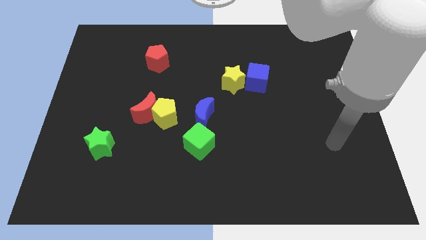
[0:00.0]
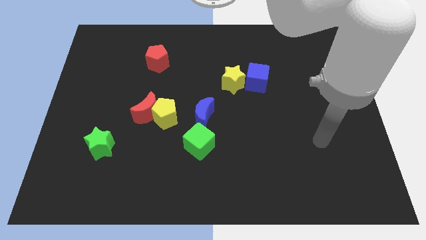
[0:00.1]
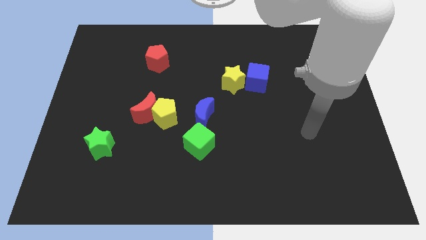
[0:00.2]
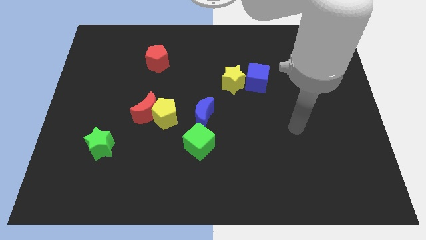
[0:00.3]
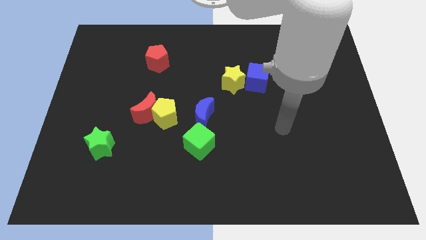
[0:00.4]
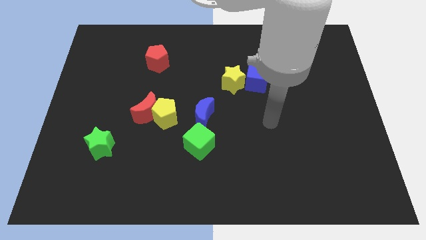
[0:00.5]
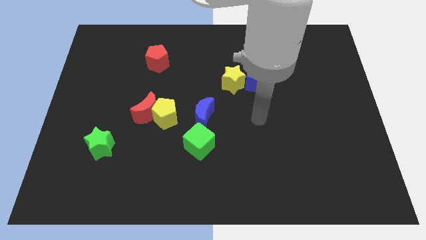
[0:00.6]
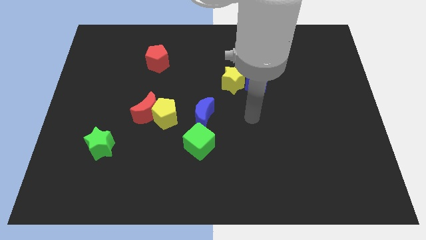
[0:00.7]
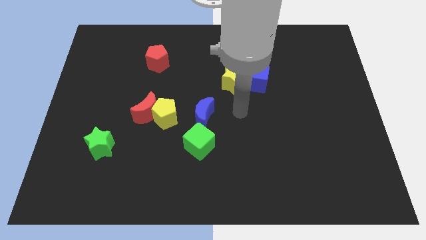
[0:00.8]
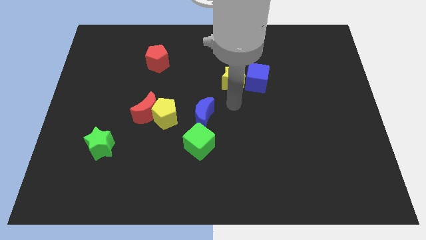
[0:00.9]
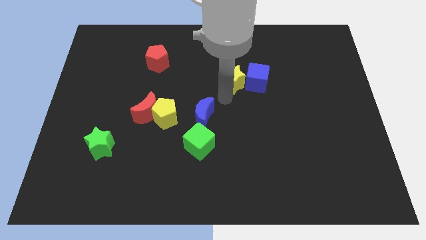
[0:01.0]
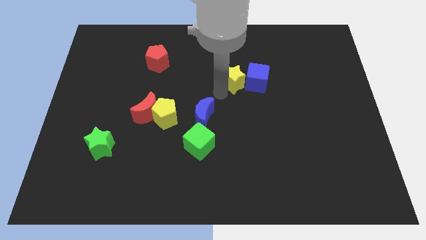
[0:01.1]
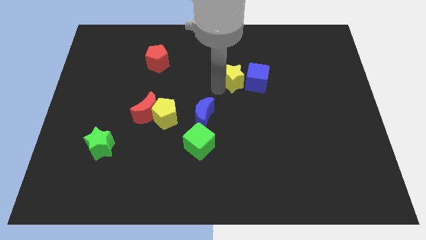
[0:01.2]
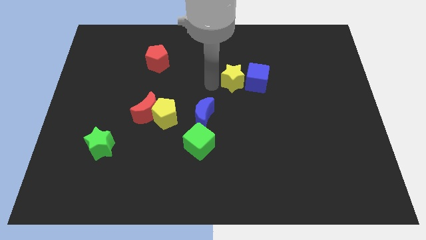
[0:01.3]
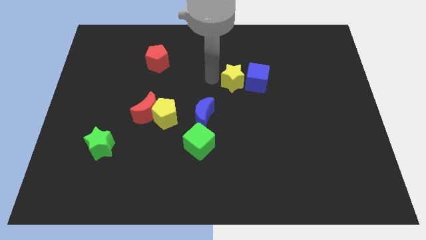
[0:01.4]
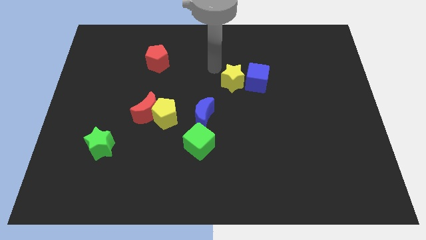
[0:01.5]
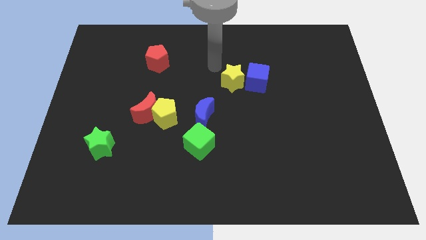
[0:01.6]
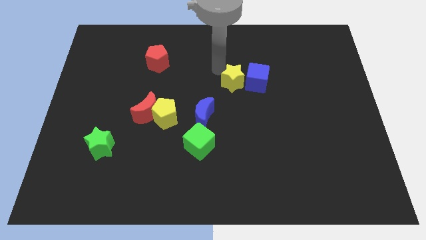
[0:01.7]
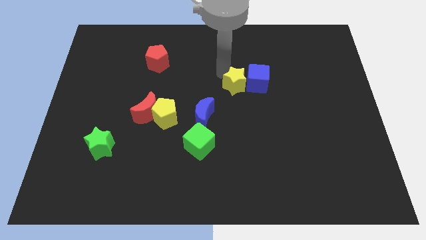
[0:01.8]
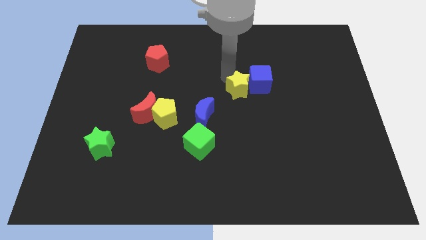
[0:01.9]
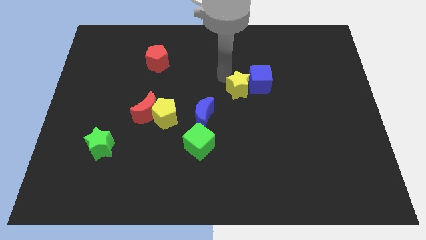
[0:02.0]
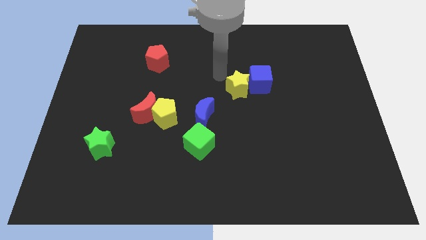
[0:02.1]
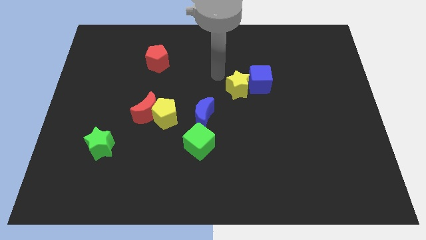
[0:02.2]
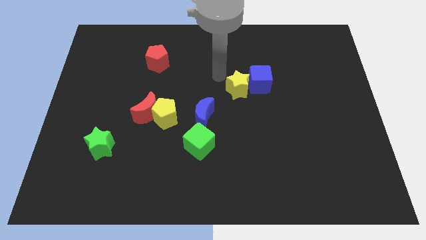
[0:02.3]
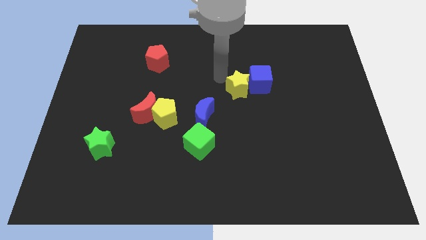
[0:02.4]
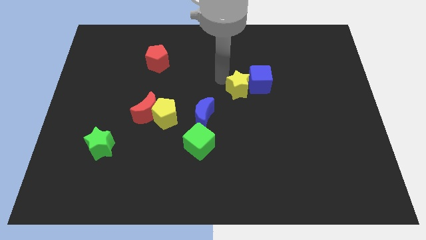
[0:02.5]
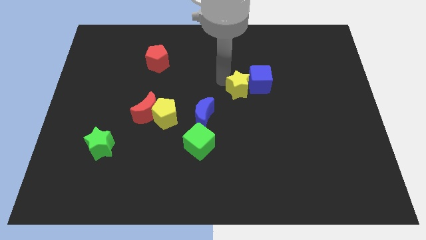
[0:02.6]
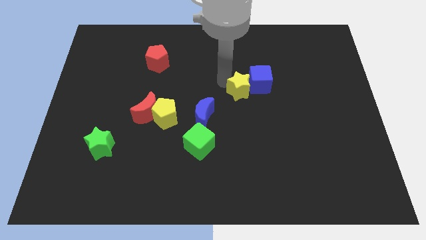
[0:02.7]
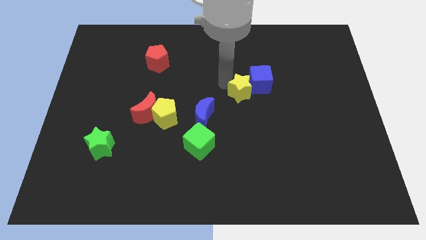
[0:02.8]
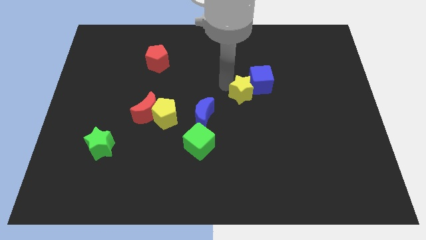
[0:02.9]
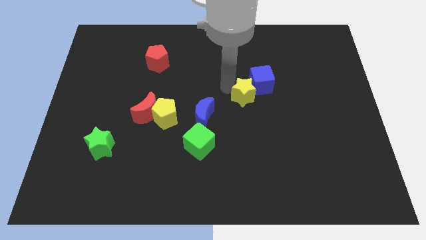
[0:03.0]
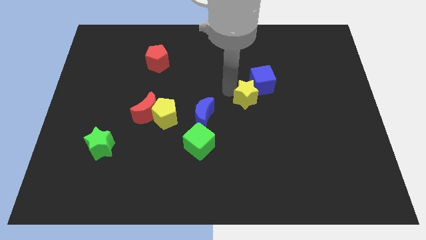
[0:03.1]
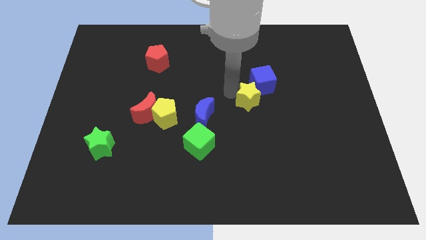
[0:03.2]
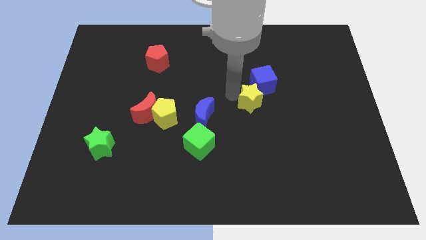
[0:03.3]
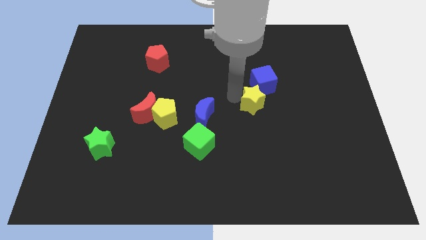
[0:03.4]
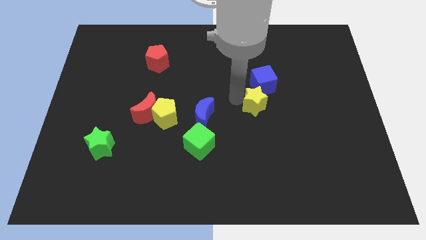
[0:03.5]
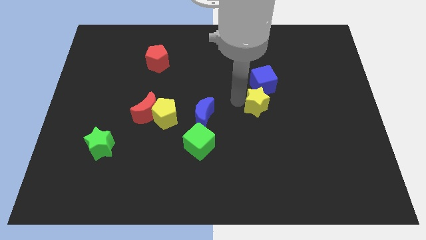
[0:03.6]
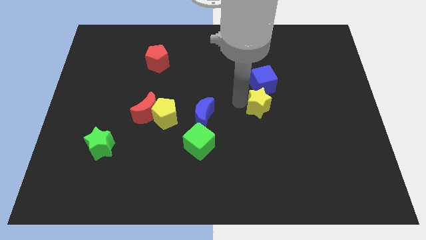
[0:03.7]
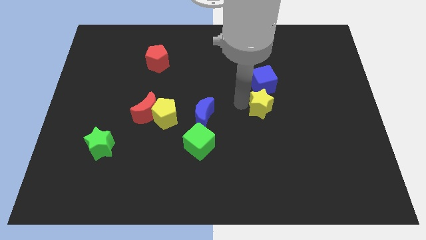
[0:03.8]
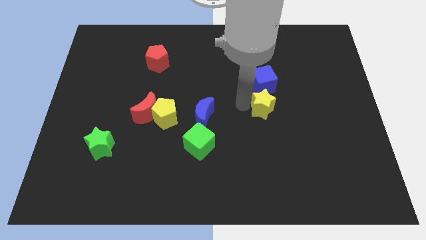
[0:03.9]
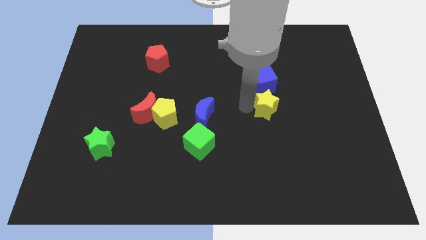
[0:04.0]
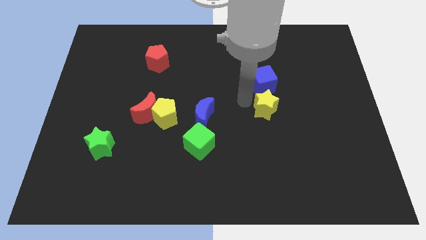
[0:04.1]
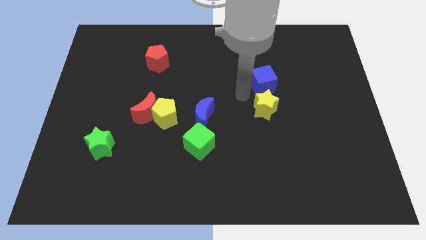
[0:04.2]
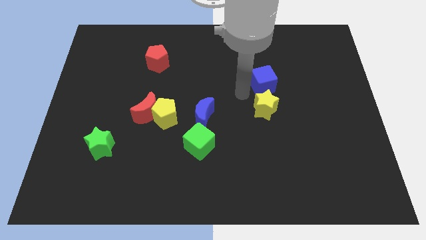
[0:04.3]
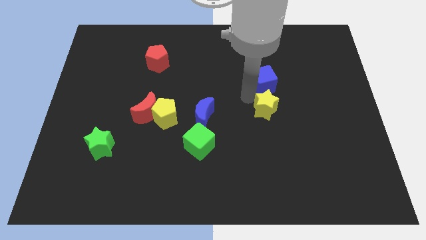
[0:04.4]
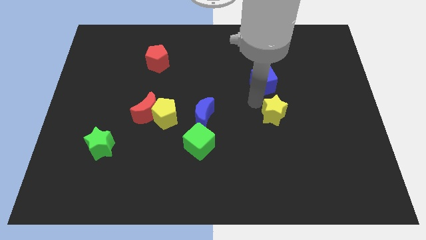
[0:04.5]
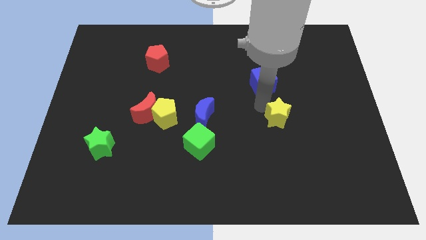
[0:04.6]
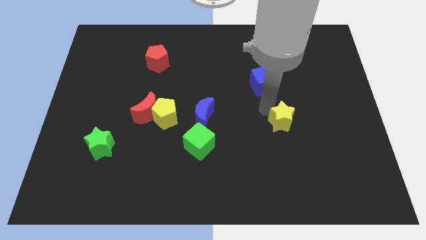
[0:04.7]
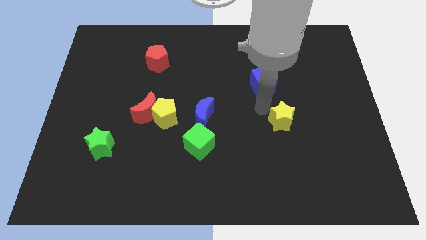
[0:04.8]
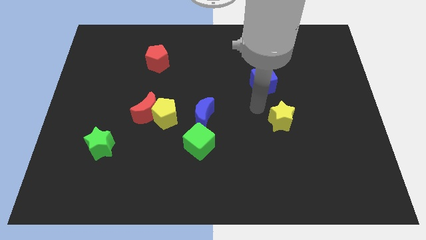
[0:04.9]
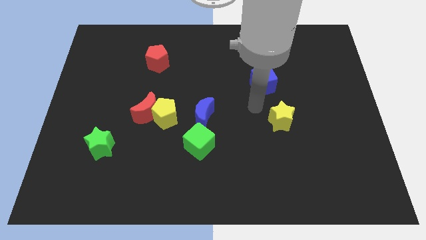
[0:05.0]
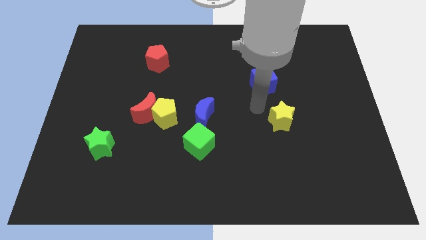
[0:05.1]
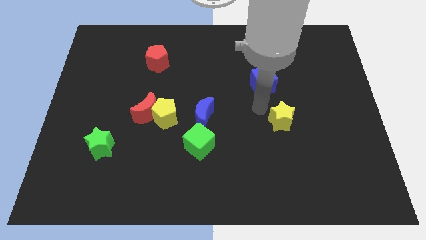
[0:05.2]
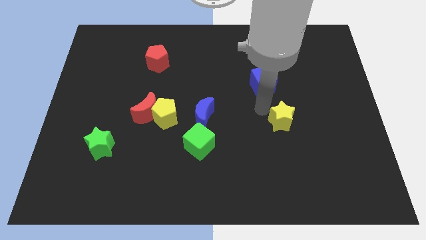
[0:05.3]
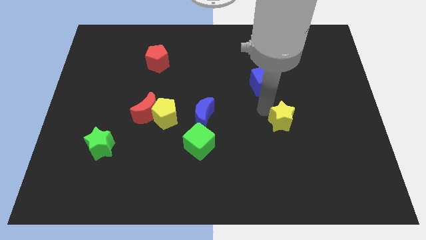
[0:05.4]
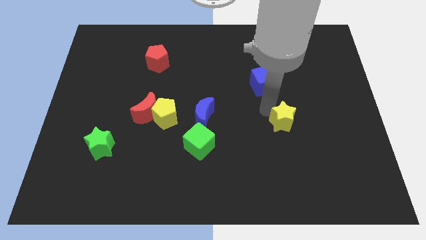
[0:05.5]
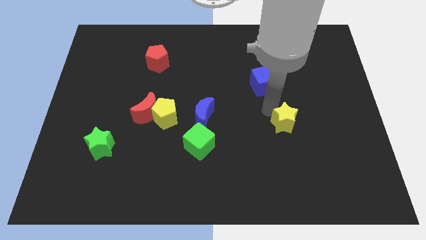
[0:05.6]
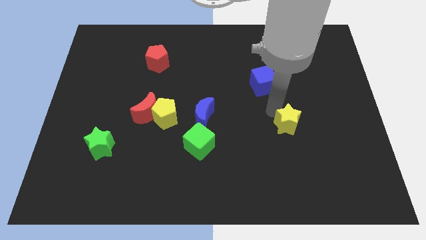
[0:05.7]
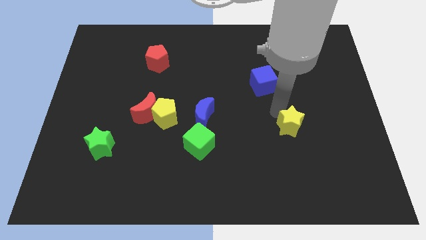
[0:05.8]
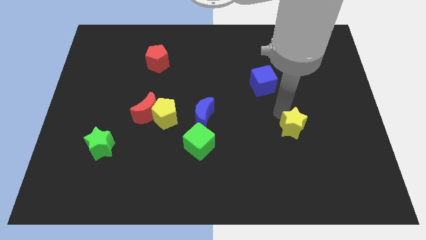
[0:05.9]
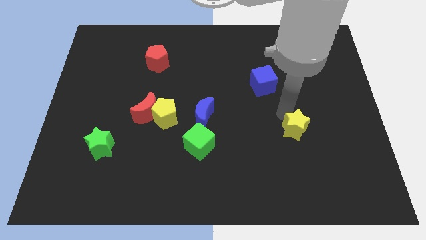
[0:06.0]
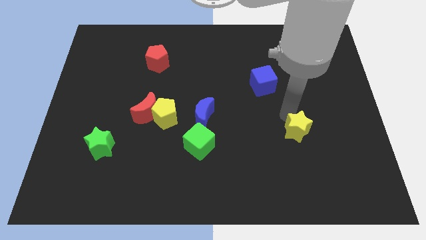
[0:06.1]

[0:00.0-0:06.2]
push the yellow star downwards and to the right

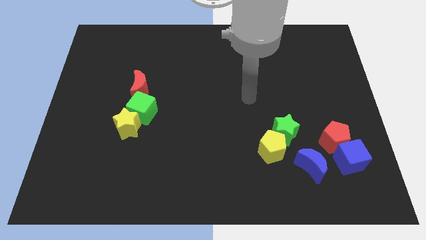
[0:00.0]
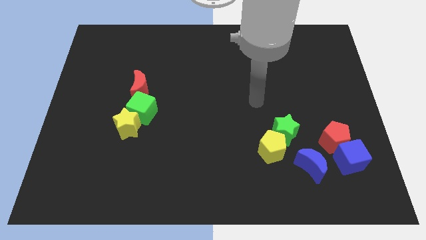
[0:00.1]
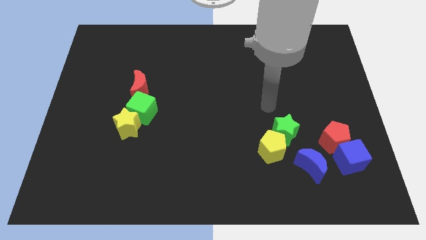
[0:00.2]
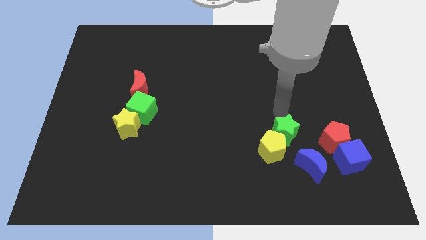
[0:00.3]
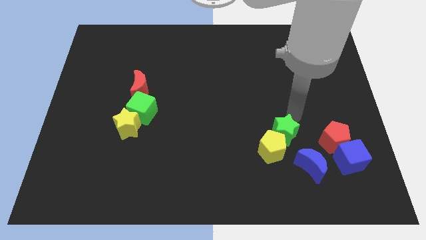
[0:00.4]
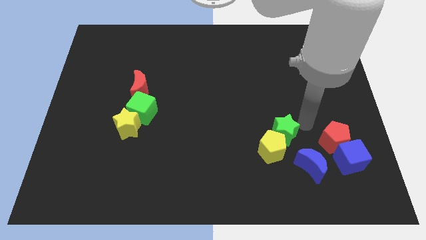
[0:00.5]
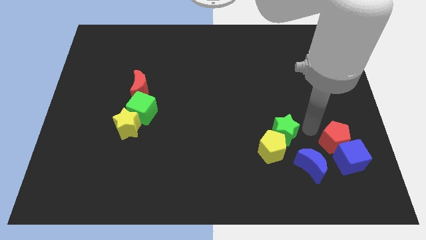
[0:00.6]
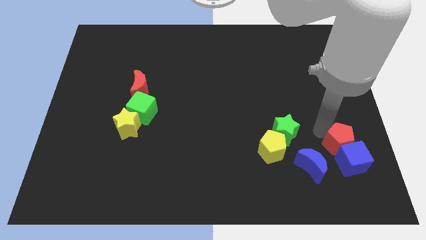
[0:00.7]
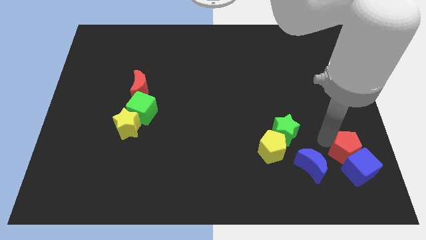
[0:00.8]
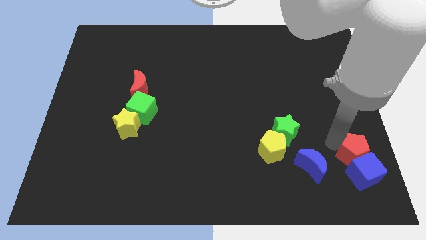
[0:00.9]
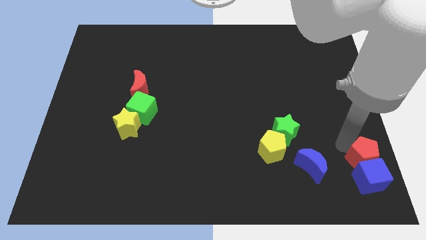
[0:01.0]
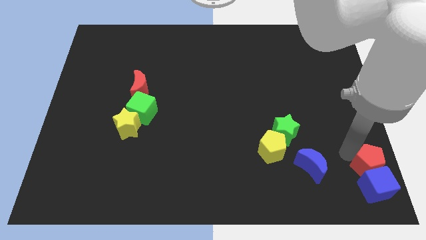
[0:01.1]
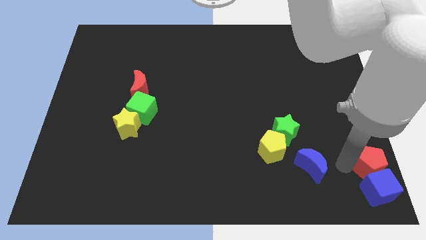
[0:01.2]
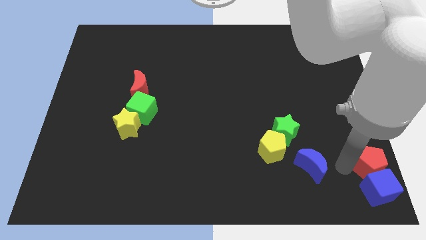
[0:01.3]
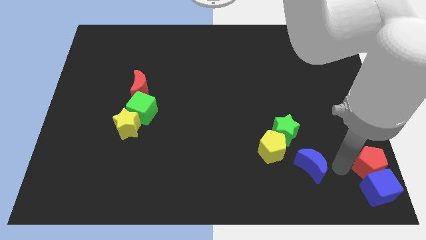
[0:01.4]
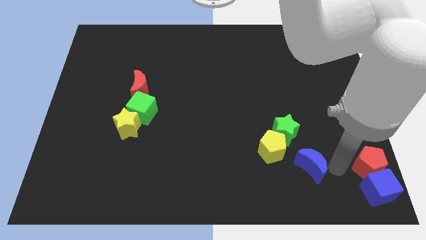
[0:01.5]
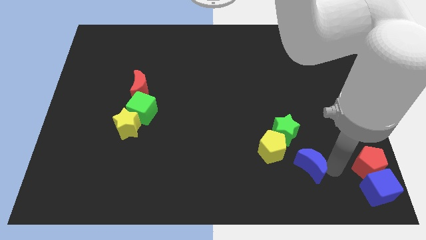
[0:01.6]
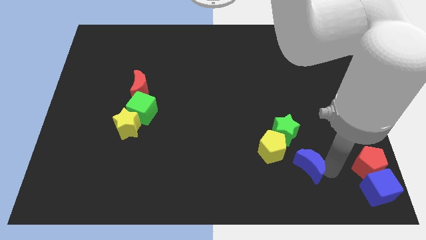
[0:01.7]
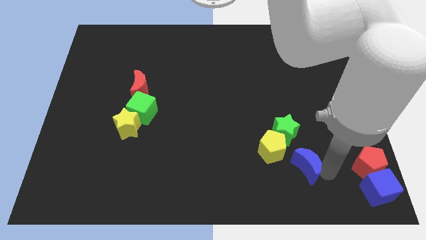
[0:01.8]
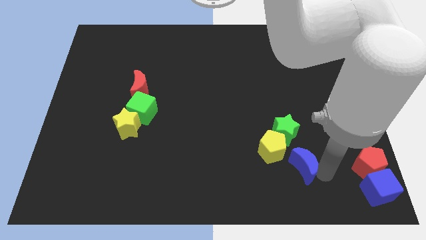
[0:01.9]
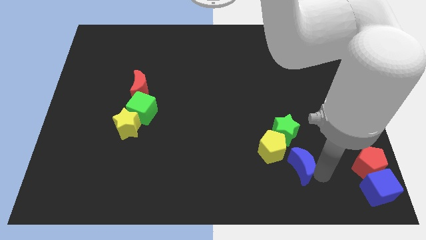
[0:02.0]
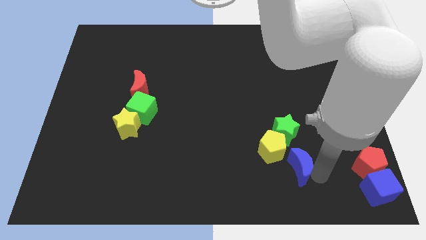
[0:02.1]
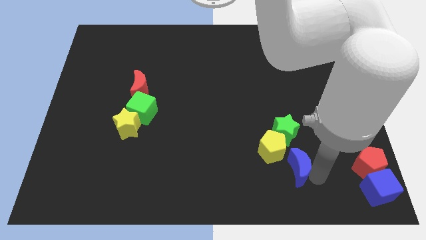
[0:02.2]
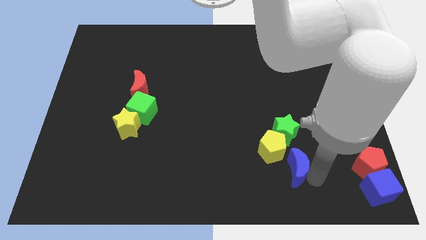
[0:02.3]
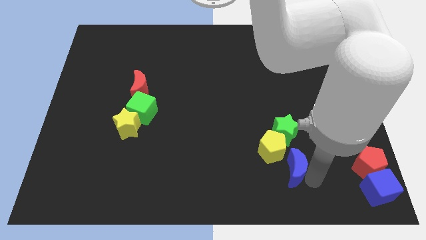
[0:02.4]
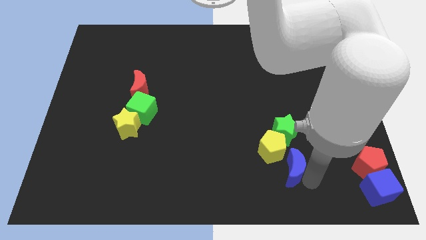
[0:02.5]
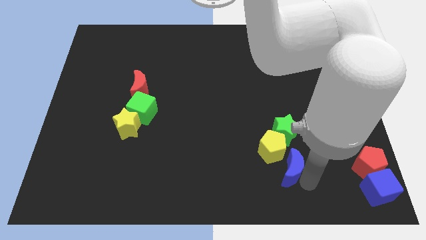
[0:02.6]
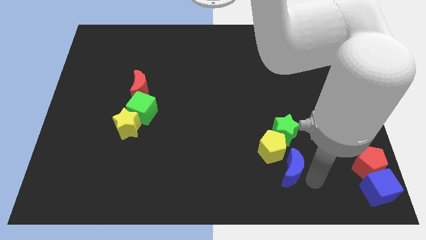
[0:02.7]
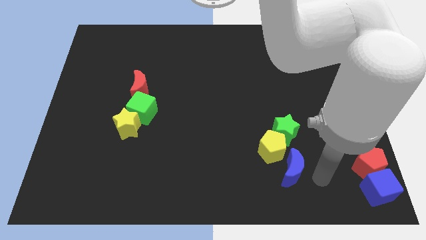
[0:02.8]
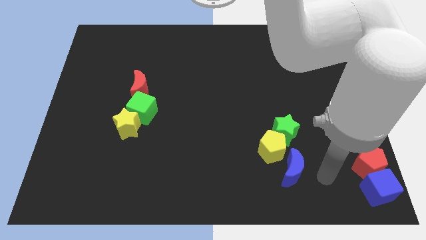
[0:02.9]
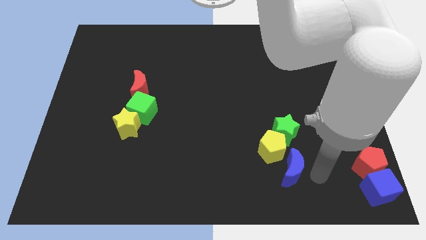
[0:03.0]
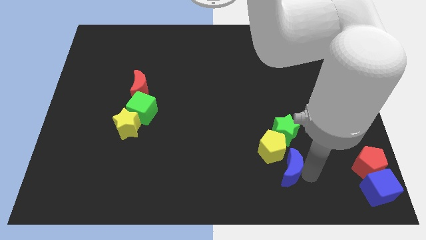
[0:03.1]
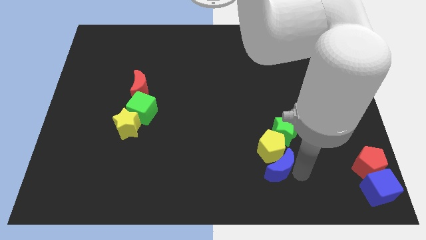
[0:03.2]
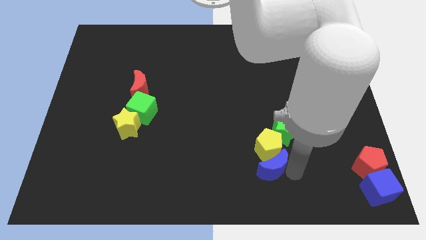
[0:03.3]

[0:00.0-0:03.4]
slide the blue moon a little left
